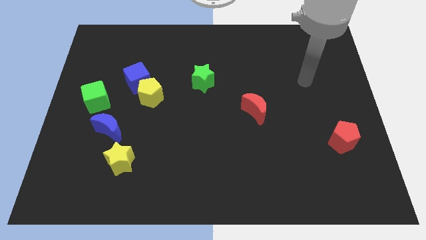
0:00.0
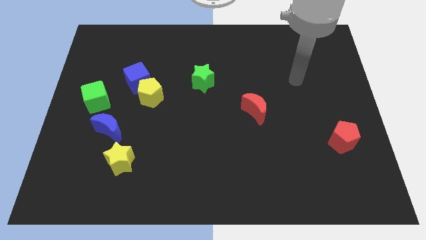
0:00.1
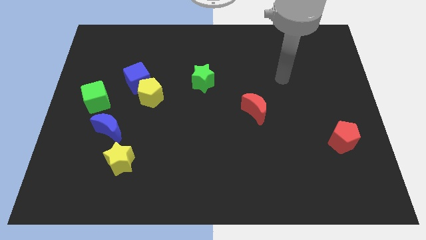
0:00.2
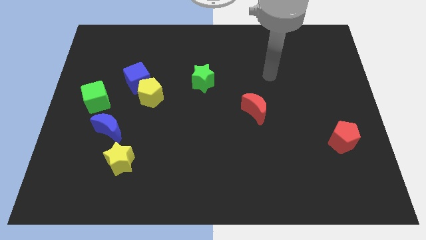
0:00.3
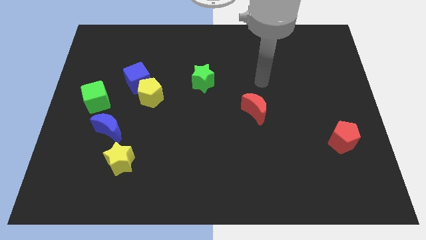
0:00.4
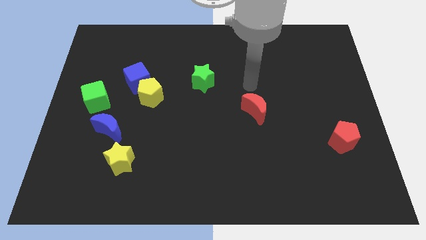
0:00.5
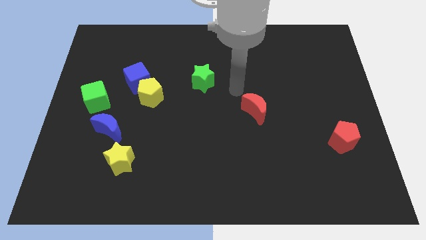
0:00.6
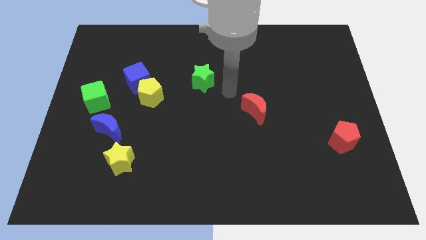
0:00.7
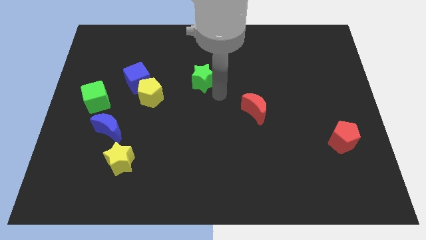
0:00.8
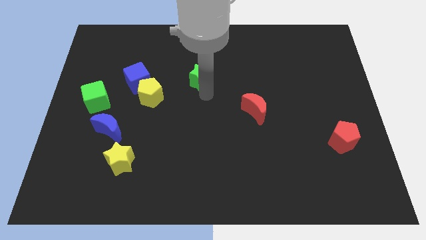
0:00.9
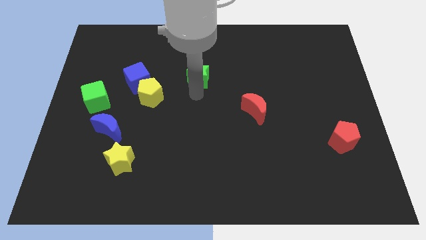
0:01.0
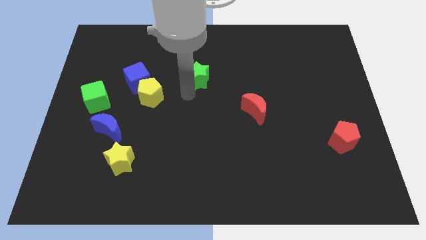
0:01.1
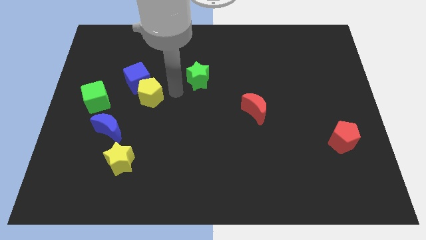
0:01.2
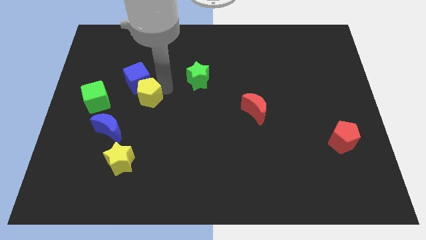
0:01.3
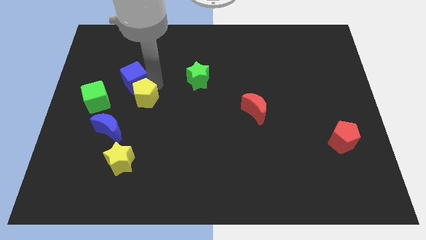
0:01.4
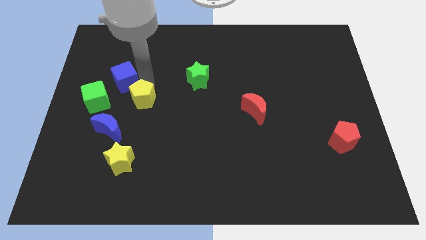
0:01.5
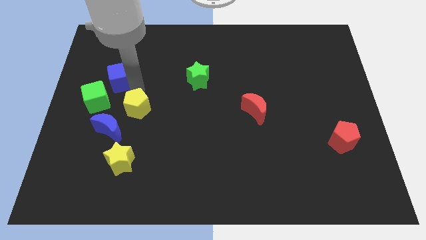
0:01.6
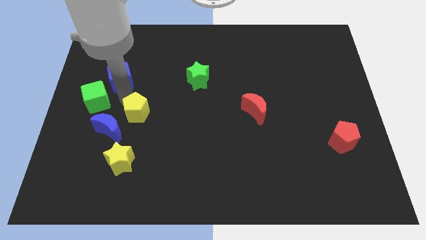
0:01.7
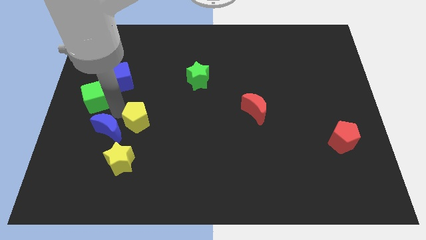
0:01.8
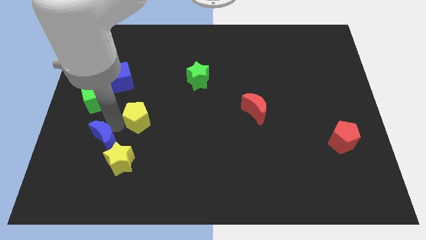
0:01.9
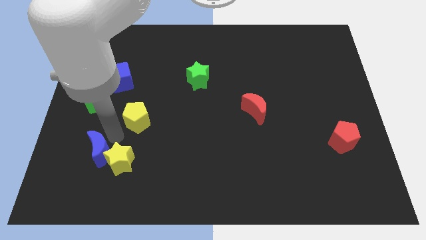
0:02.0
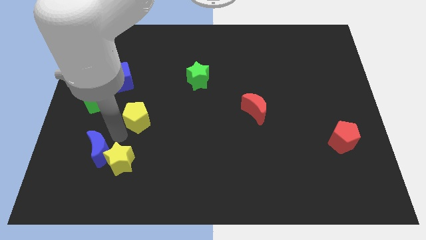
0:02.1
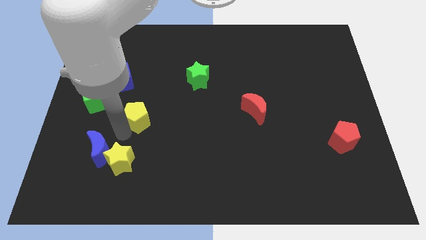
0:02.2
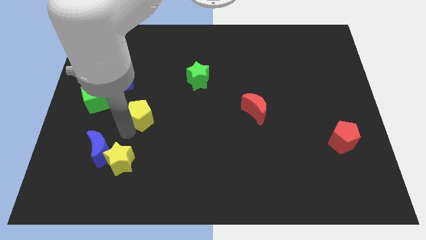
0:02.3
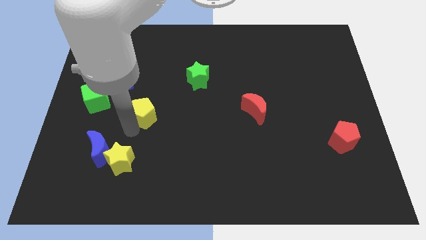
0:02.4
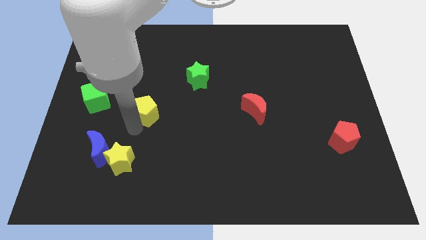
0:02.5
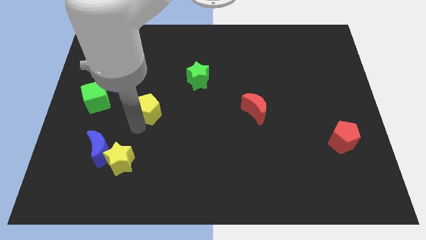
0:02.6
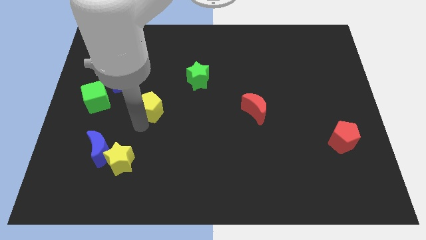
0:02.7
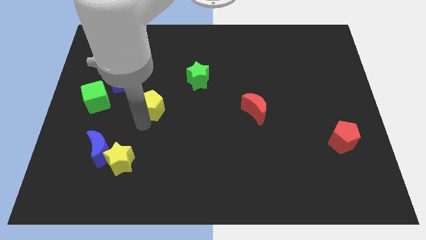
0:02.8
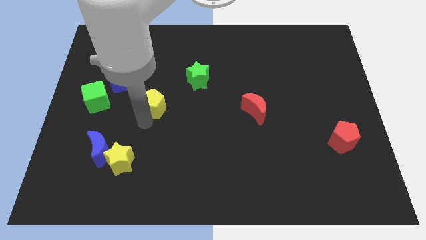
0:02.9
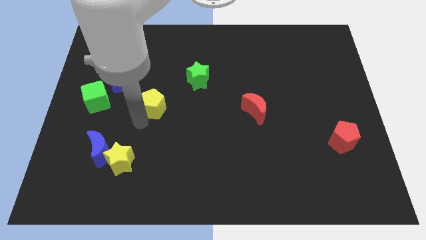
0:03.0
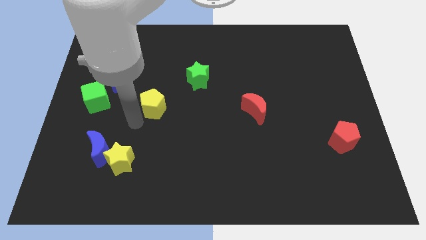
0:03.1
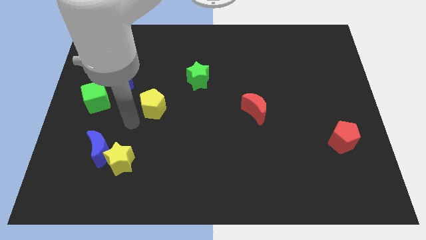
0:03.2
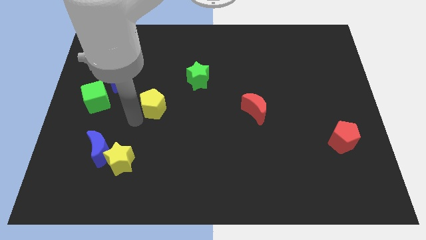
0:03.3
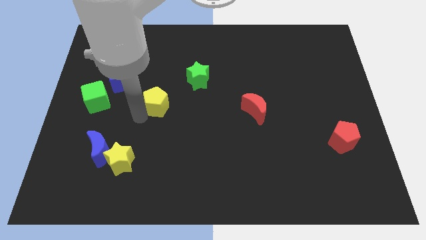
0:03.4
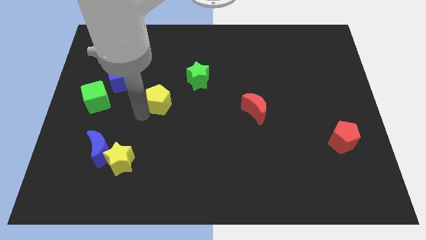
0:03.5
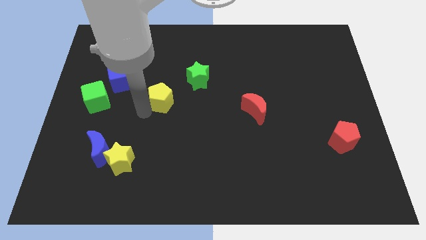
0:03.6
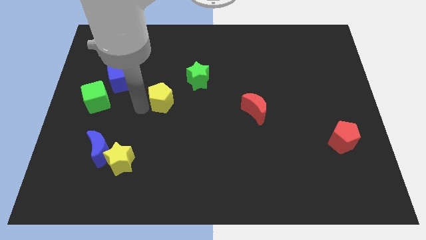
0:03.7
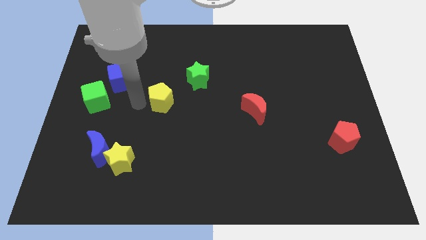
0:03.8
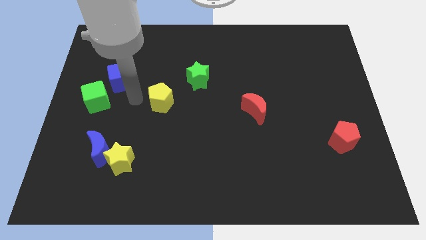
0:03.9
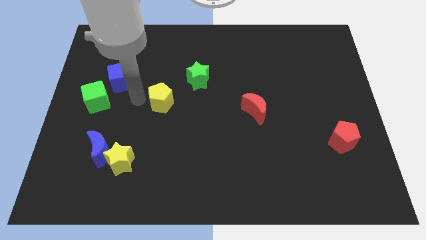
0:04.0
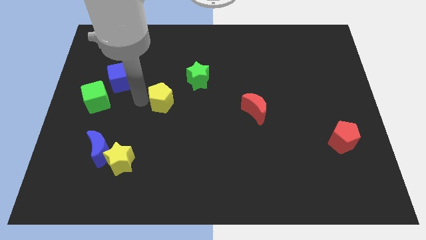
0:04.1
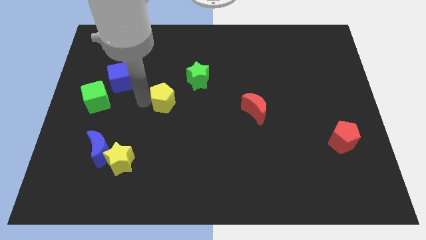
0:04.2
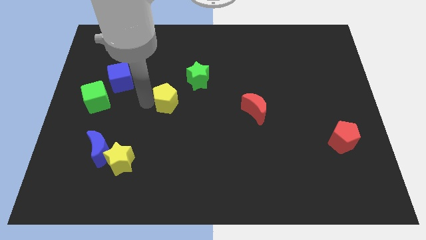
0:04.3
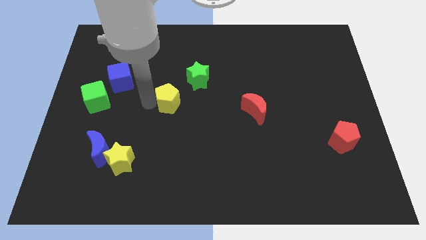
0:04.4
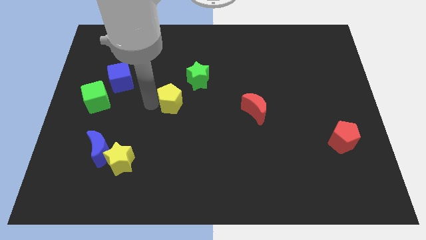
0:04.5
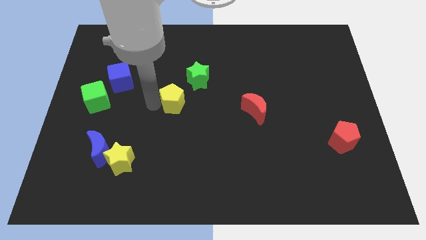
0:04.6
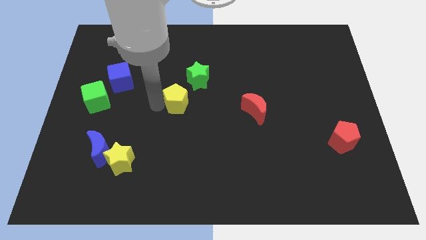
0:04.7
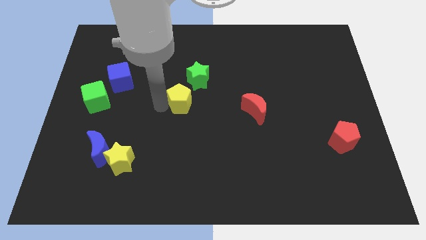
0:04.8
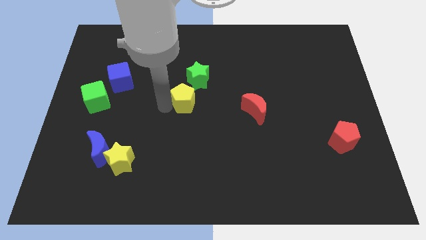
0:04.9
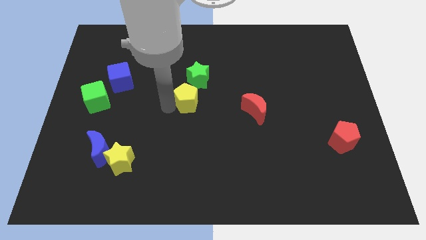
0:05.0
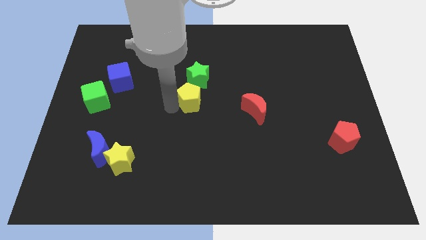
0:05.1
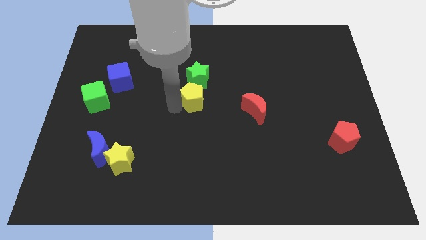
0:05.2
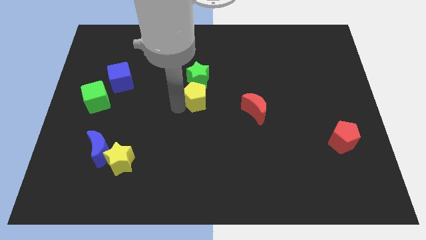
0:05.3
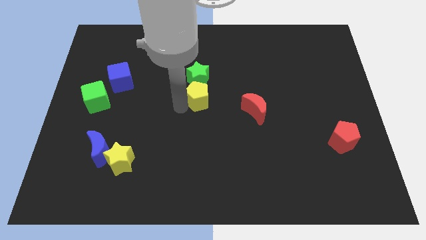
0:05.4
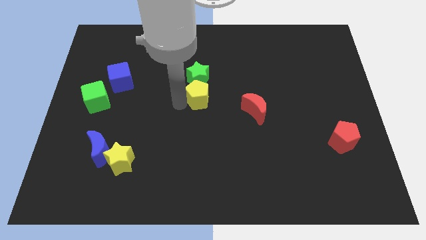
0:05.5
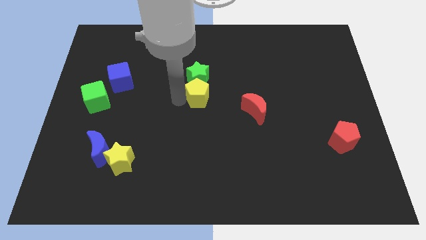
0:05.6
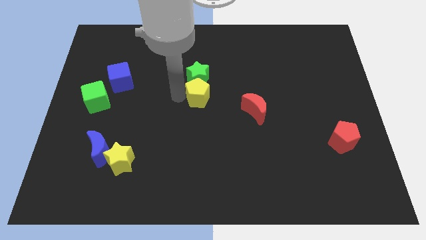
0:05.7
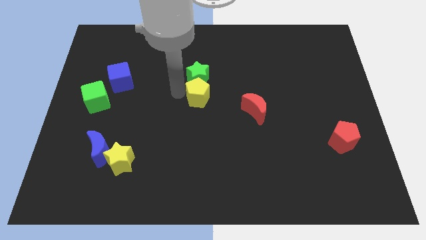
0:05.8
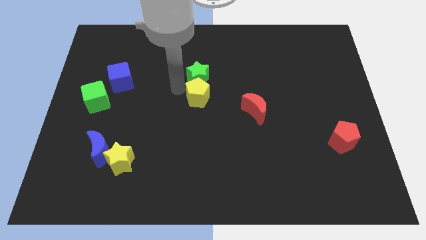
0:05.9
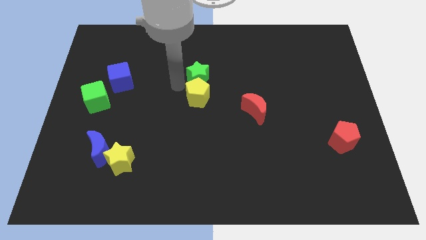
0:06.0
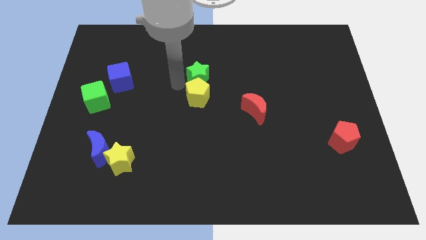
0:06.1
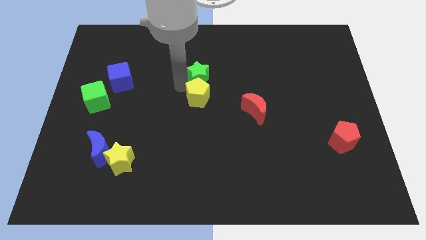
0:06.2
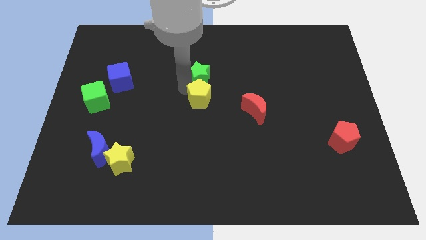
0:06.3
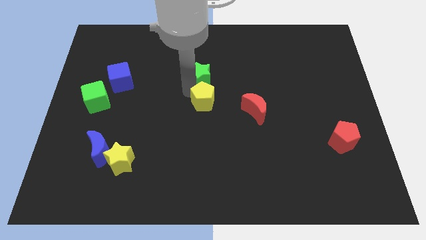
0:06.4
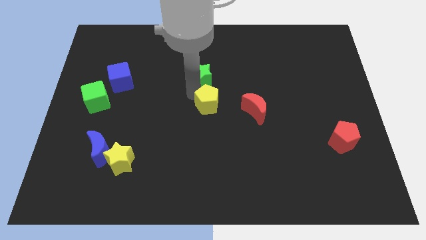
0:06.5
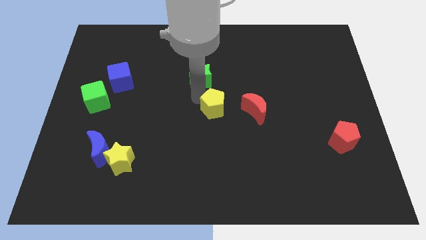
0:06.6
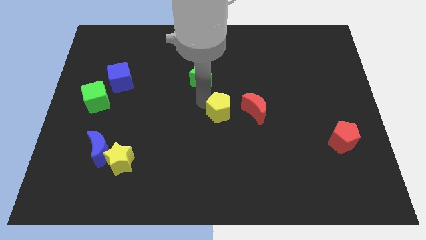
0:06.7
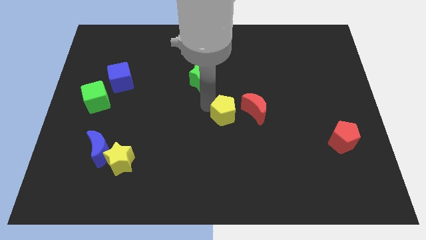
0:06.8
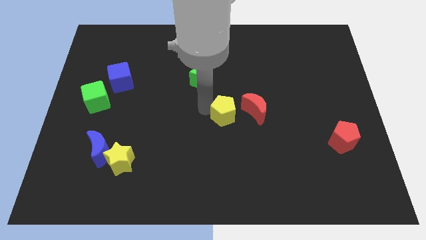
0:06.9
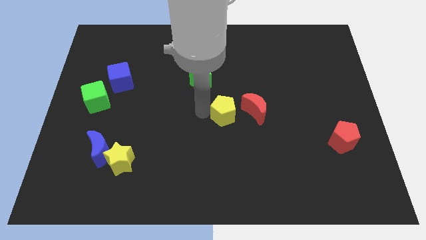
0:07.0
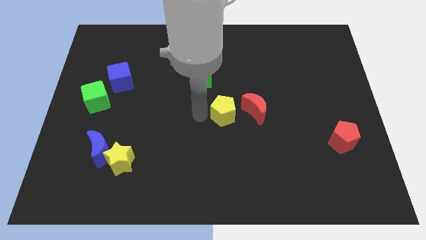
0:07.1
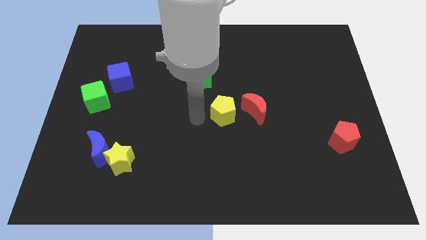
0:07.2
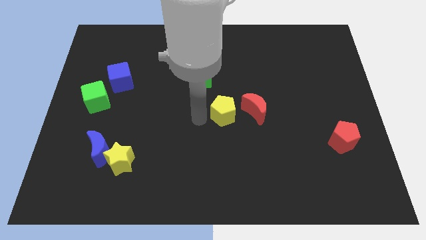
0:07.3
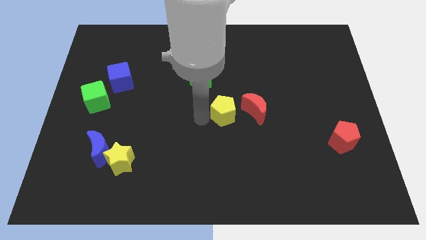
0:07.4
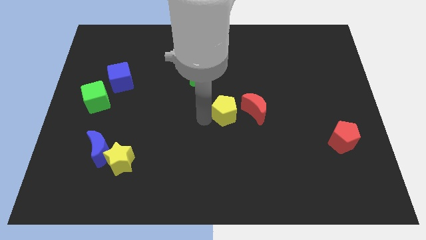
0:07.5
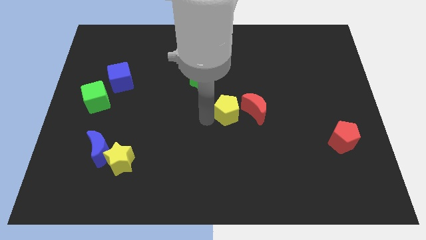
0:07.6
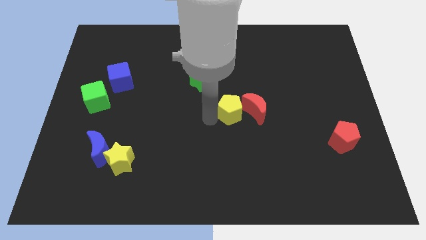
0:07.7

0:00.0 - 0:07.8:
push the yellow pentagon towards the red moon

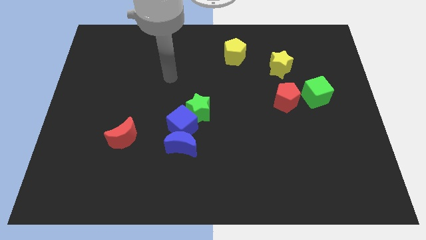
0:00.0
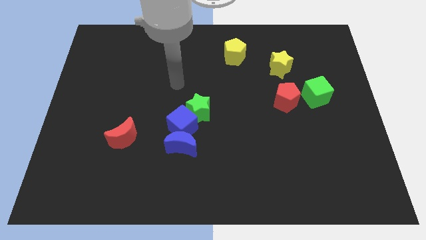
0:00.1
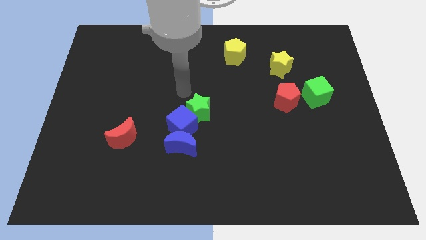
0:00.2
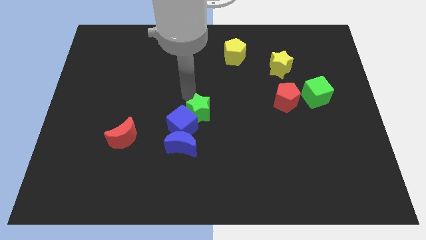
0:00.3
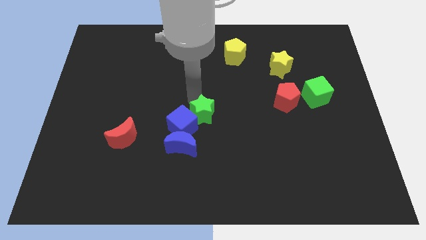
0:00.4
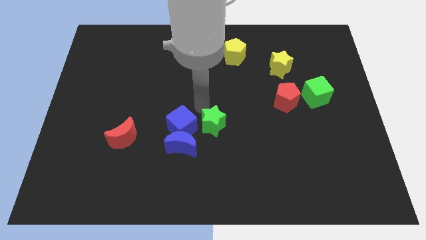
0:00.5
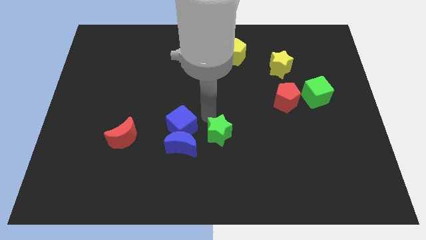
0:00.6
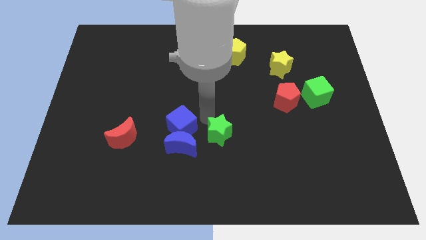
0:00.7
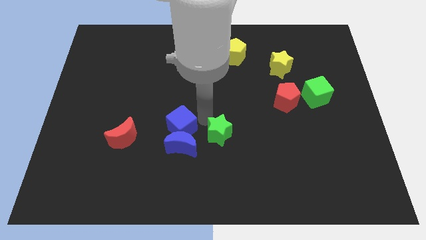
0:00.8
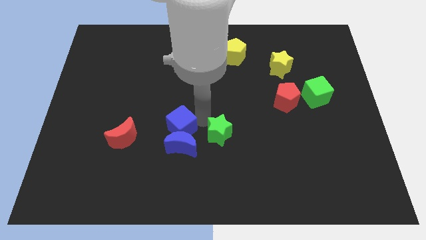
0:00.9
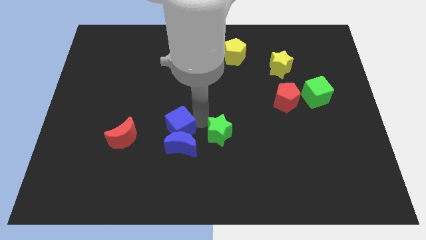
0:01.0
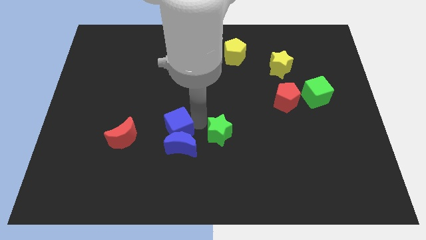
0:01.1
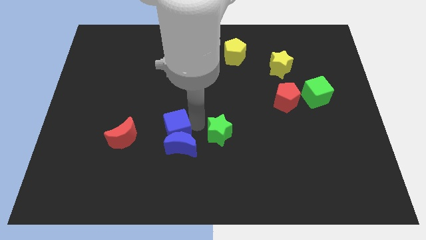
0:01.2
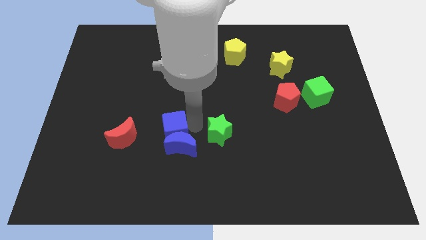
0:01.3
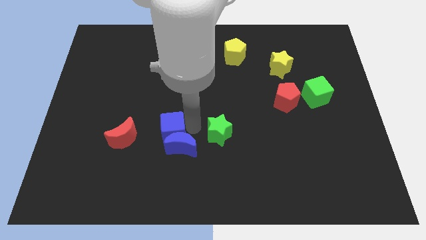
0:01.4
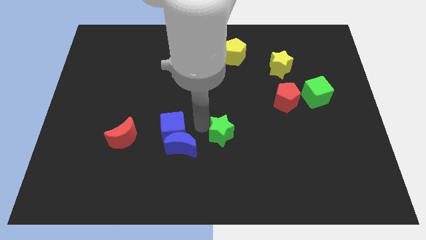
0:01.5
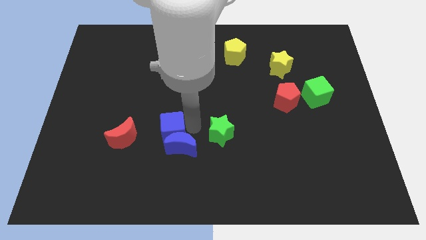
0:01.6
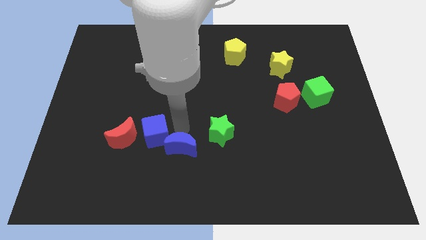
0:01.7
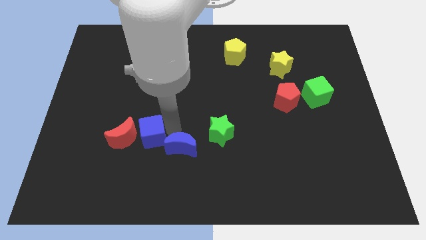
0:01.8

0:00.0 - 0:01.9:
move the blue cube close to the red moon
